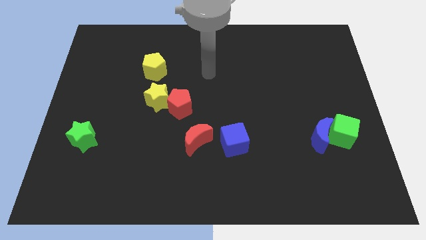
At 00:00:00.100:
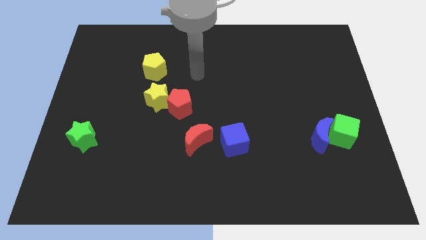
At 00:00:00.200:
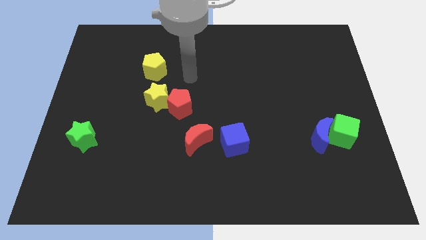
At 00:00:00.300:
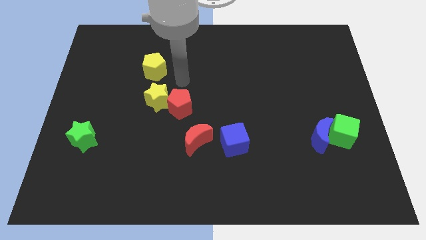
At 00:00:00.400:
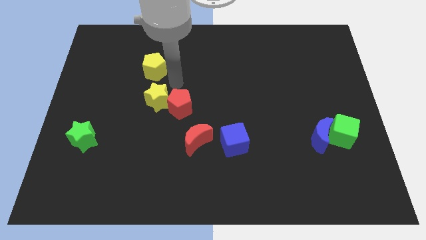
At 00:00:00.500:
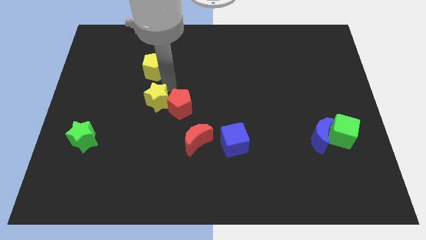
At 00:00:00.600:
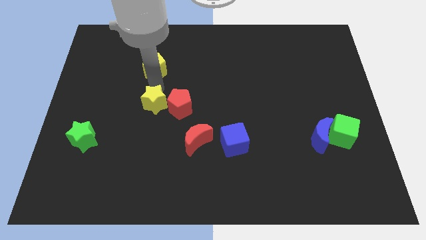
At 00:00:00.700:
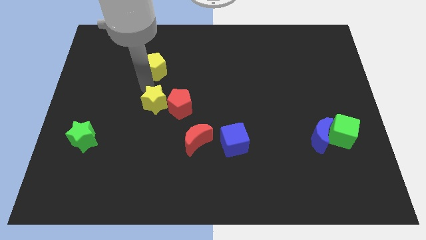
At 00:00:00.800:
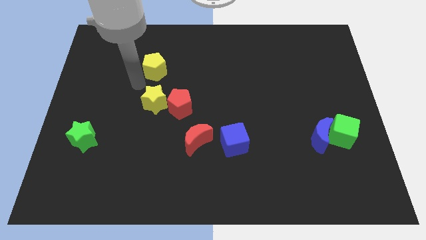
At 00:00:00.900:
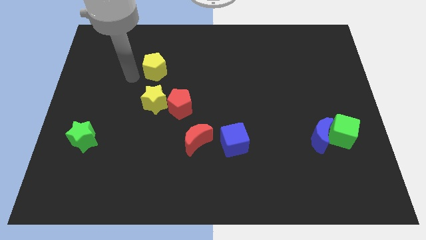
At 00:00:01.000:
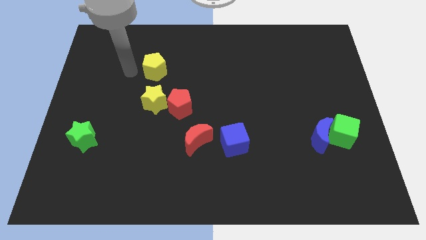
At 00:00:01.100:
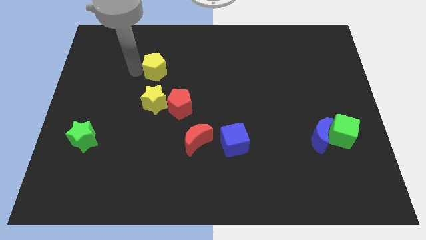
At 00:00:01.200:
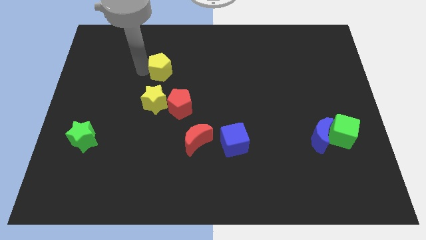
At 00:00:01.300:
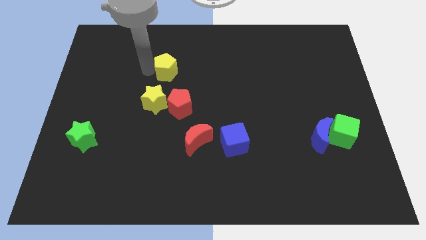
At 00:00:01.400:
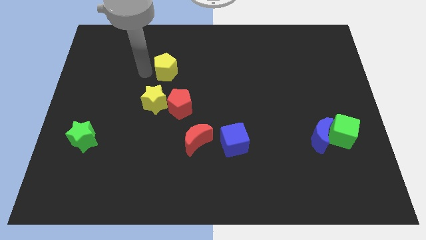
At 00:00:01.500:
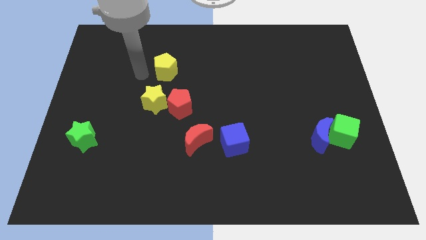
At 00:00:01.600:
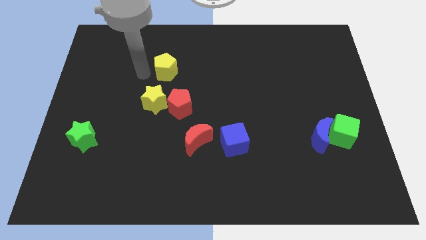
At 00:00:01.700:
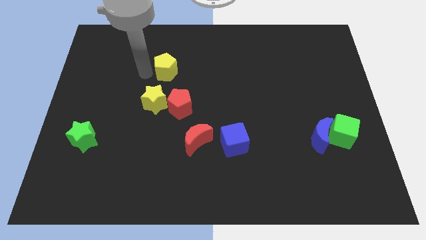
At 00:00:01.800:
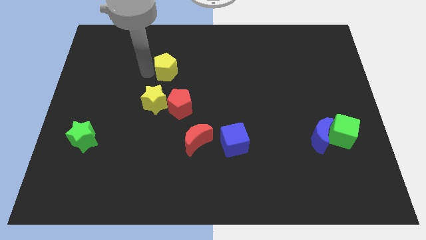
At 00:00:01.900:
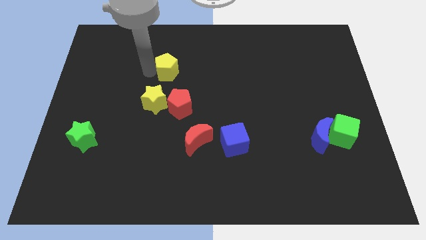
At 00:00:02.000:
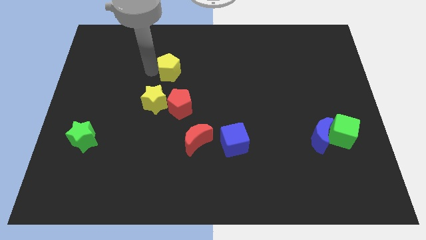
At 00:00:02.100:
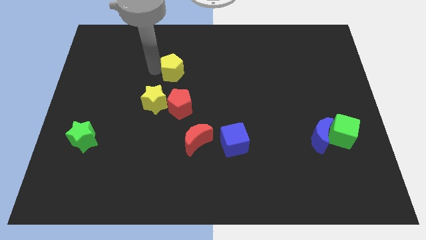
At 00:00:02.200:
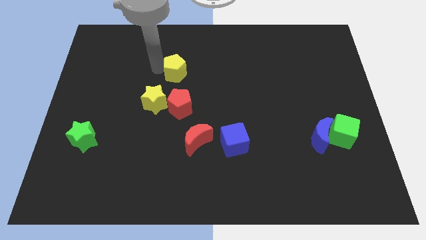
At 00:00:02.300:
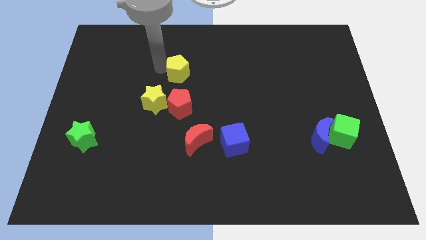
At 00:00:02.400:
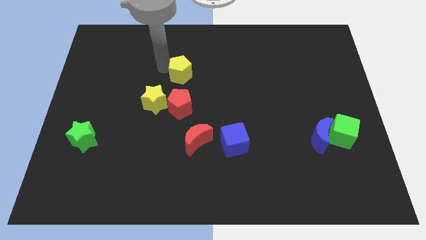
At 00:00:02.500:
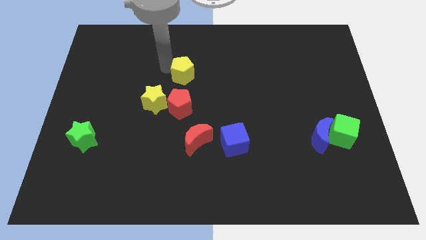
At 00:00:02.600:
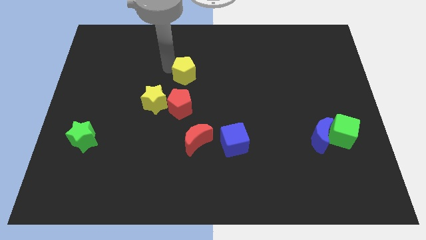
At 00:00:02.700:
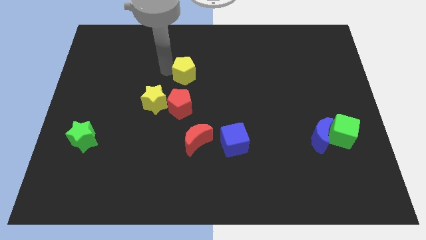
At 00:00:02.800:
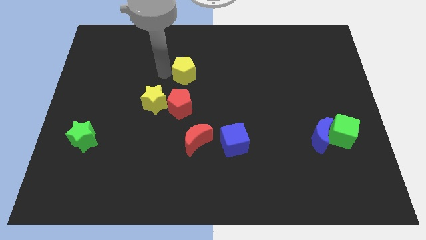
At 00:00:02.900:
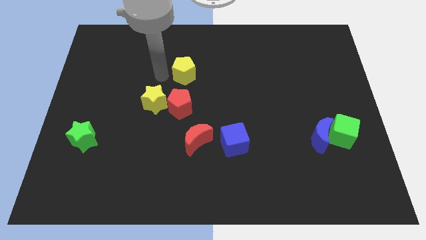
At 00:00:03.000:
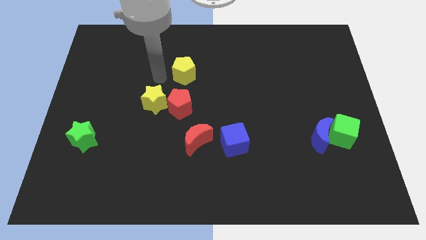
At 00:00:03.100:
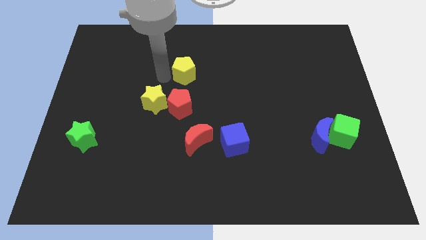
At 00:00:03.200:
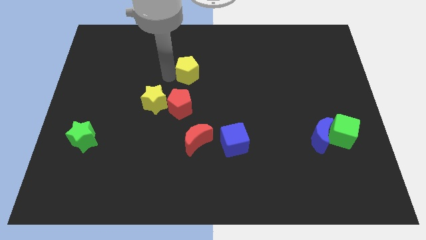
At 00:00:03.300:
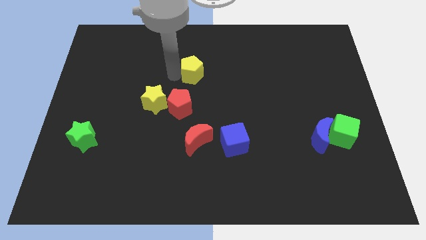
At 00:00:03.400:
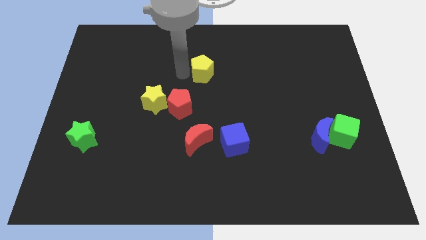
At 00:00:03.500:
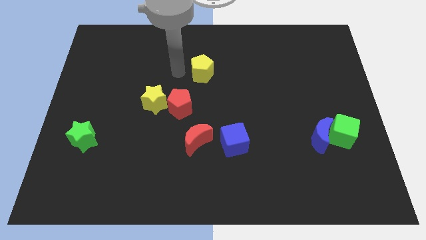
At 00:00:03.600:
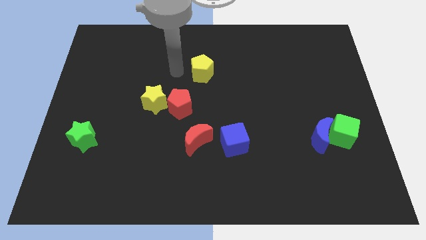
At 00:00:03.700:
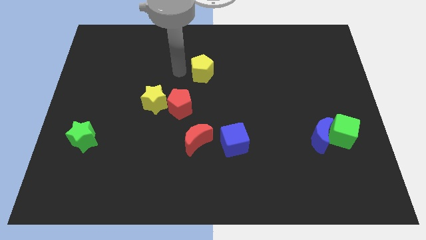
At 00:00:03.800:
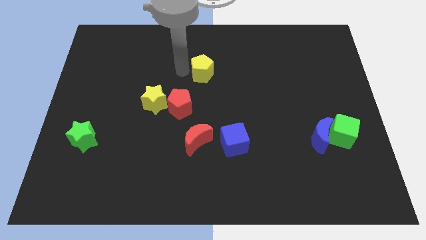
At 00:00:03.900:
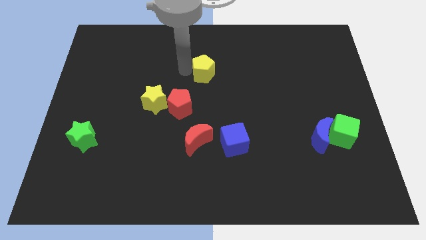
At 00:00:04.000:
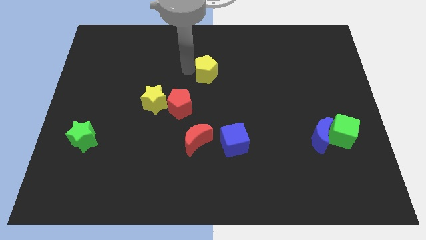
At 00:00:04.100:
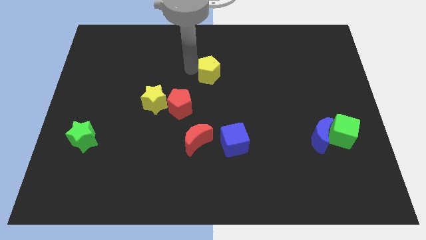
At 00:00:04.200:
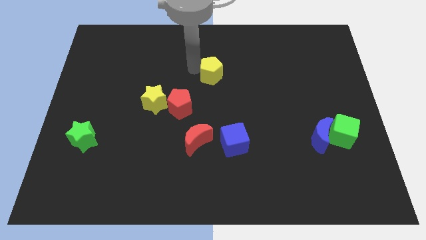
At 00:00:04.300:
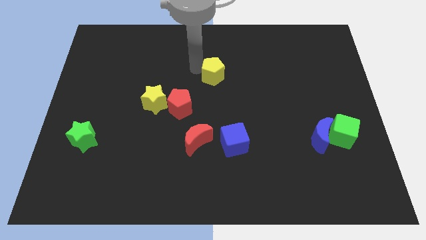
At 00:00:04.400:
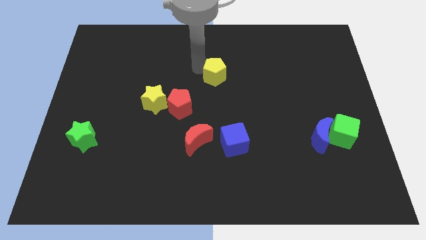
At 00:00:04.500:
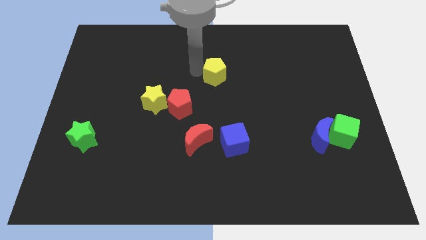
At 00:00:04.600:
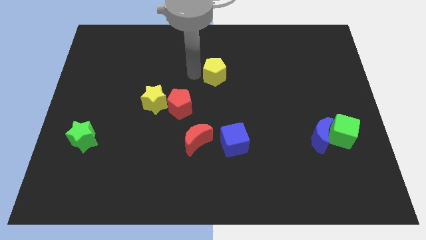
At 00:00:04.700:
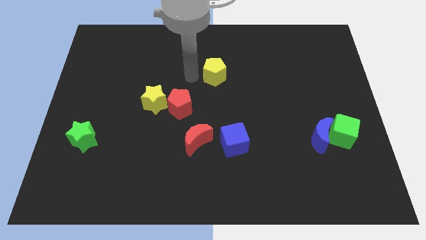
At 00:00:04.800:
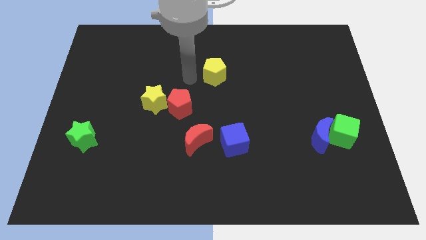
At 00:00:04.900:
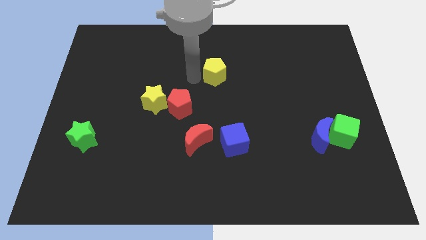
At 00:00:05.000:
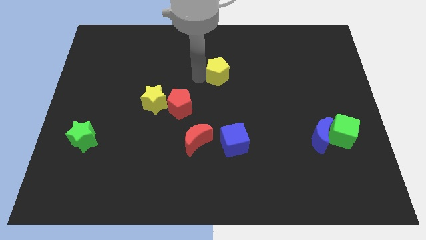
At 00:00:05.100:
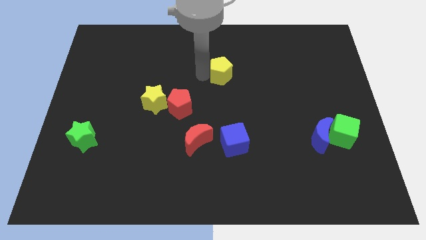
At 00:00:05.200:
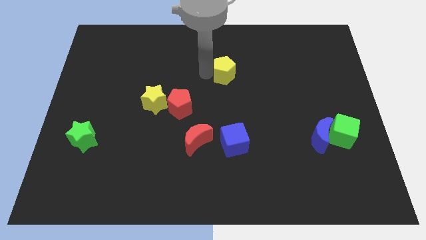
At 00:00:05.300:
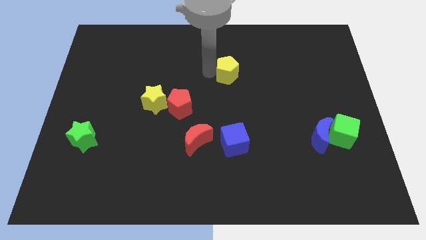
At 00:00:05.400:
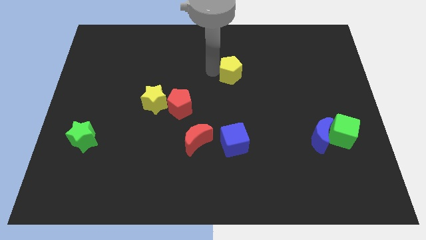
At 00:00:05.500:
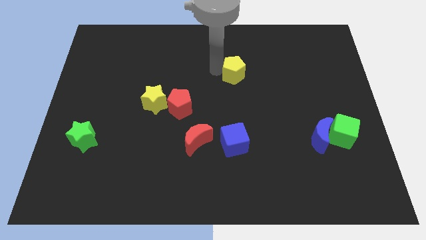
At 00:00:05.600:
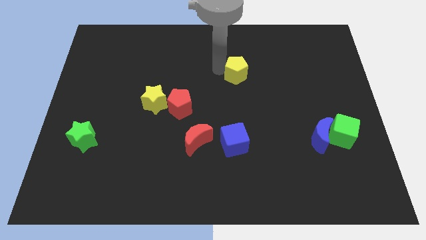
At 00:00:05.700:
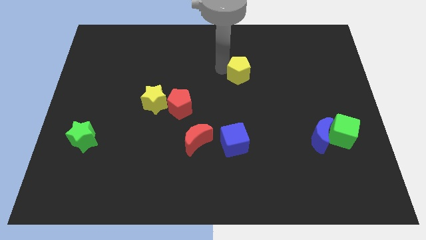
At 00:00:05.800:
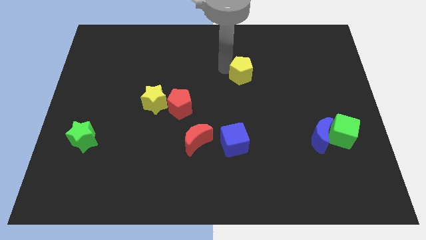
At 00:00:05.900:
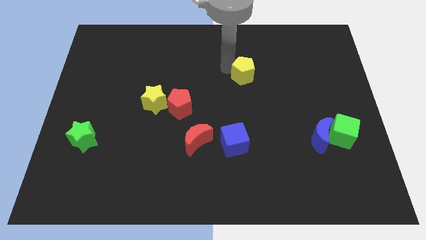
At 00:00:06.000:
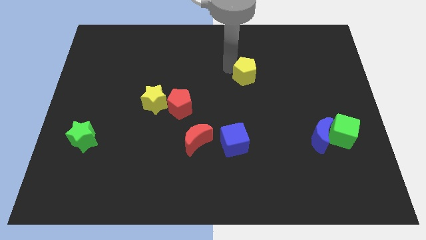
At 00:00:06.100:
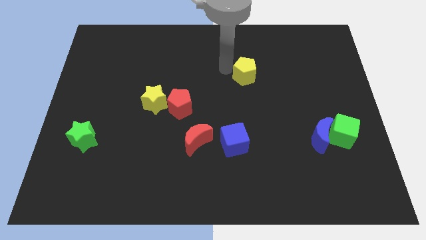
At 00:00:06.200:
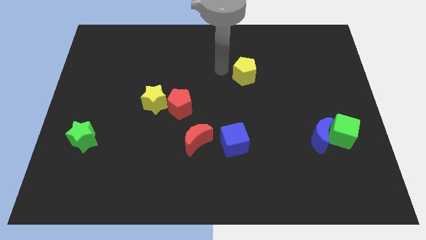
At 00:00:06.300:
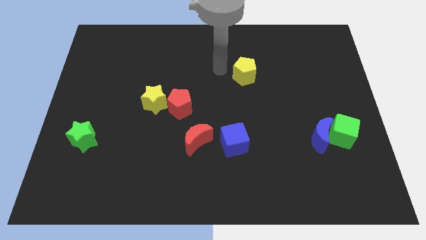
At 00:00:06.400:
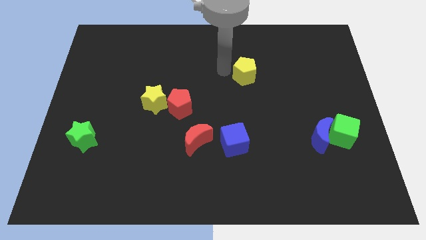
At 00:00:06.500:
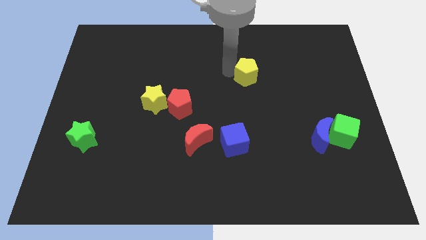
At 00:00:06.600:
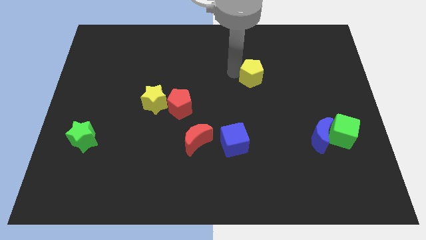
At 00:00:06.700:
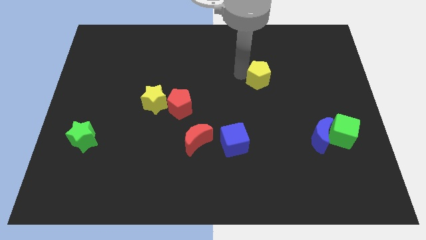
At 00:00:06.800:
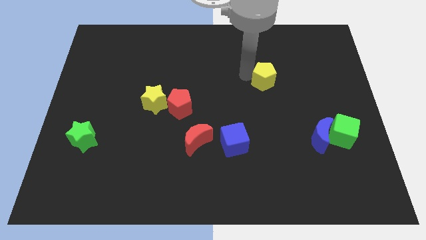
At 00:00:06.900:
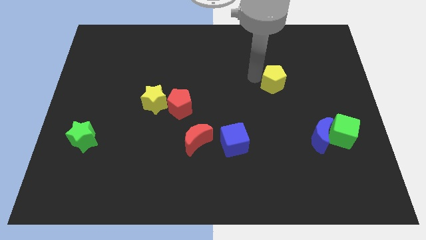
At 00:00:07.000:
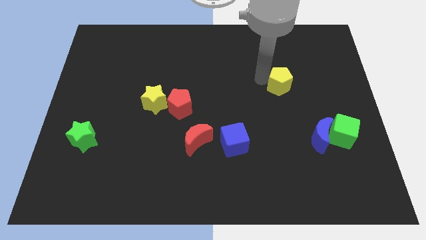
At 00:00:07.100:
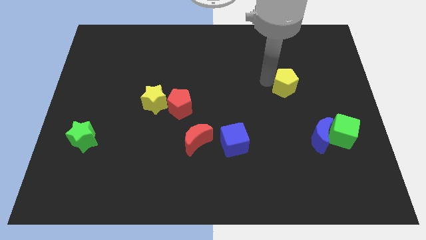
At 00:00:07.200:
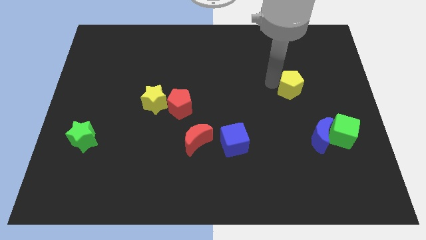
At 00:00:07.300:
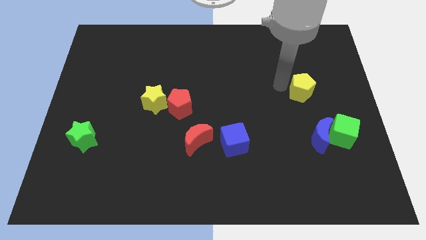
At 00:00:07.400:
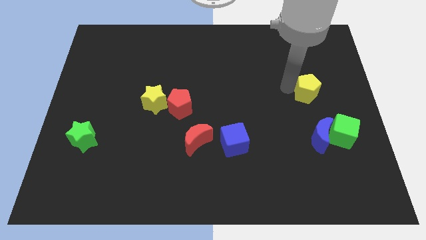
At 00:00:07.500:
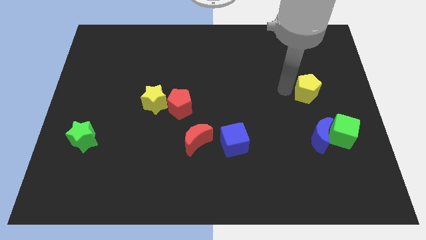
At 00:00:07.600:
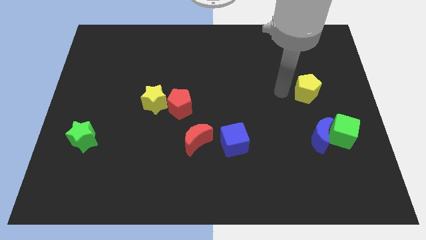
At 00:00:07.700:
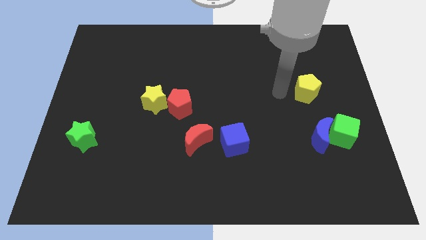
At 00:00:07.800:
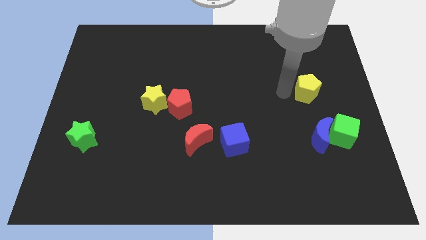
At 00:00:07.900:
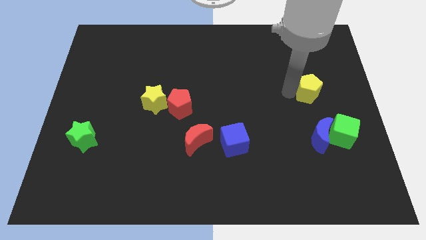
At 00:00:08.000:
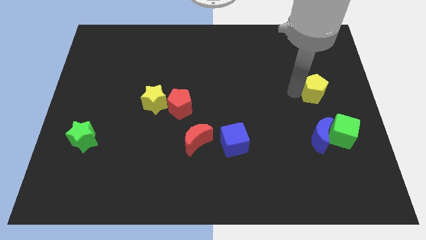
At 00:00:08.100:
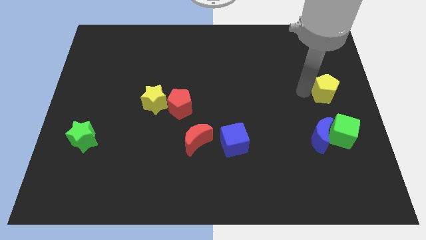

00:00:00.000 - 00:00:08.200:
slide the yellow pentagon to the right side
